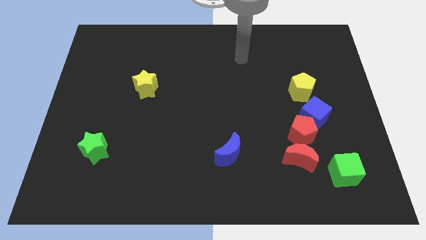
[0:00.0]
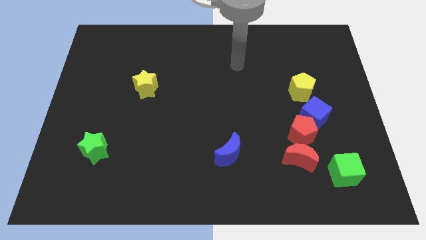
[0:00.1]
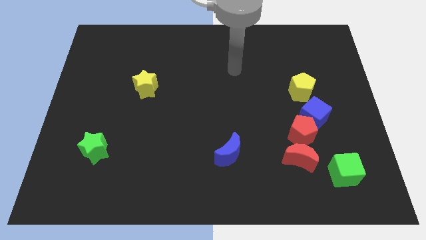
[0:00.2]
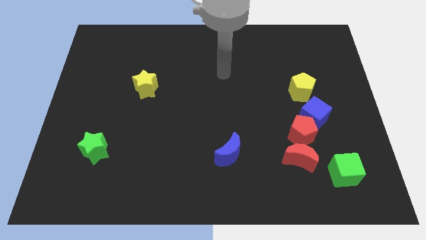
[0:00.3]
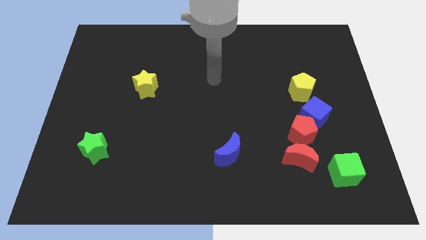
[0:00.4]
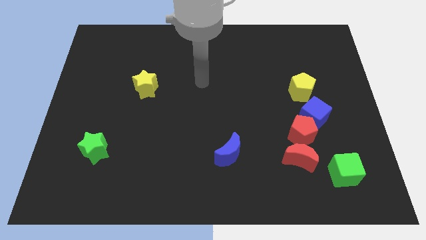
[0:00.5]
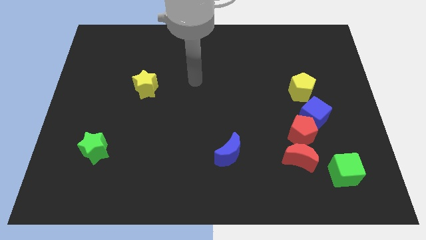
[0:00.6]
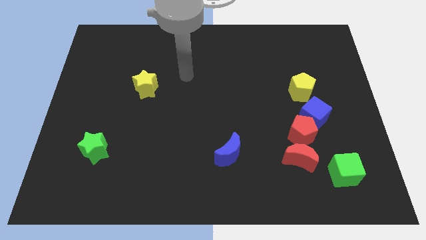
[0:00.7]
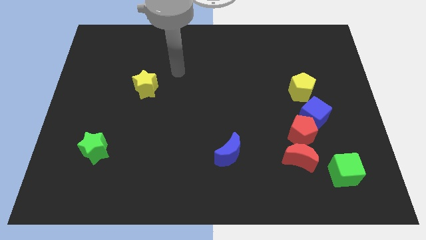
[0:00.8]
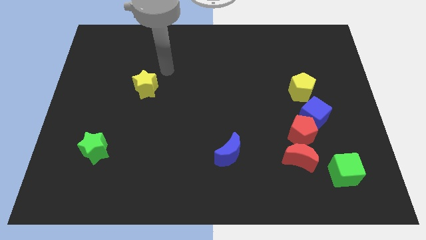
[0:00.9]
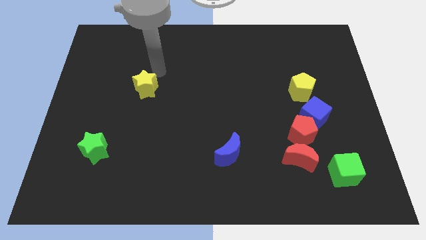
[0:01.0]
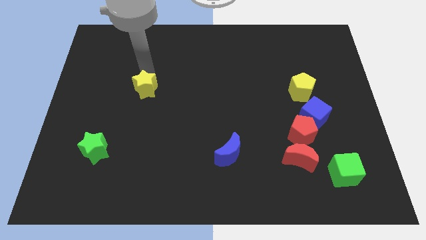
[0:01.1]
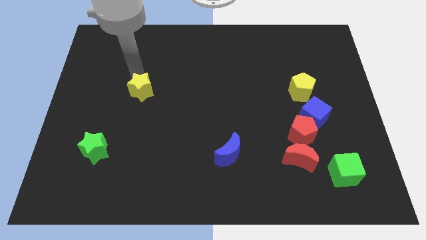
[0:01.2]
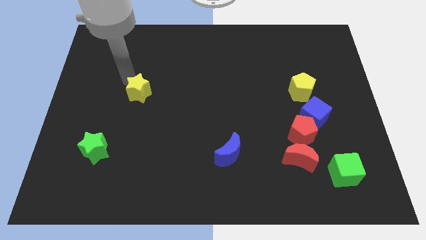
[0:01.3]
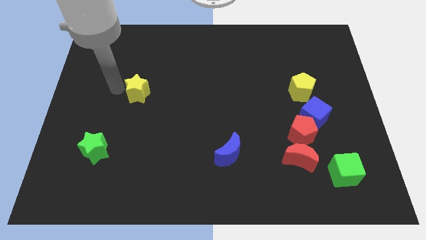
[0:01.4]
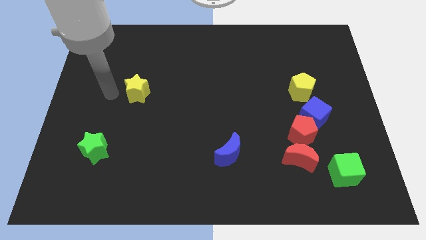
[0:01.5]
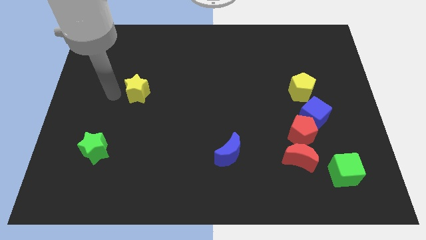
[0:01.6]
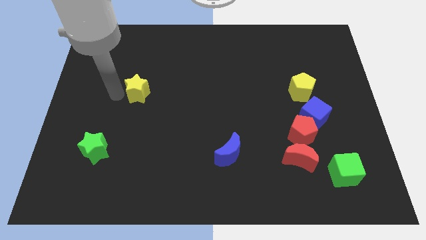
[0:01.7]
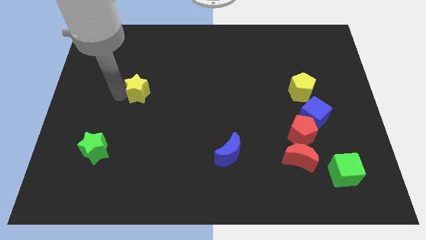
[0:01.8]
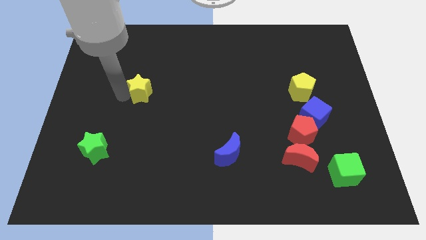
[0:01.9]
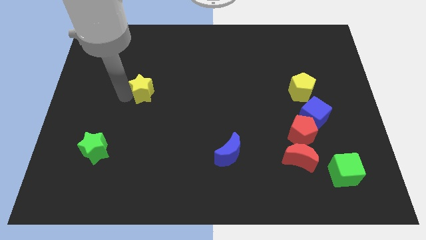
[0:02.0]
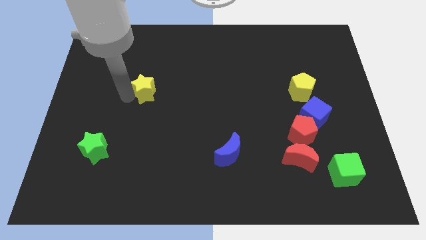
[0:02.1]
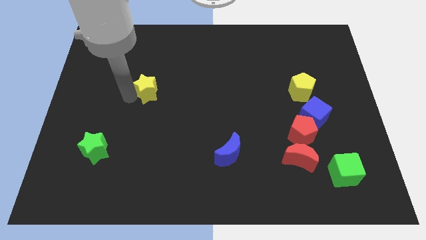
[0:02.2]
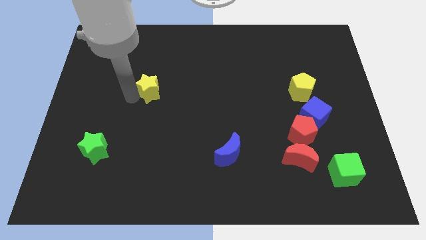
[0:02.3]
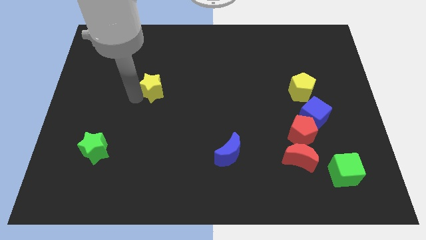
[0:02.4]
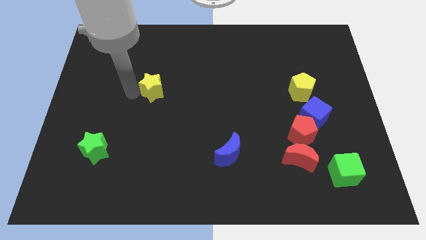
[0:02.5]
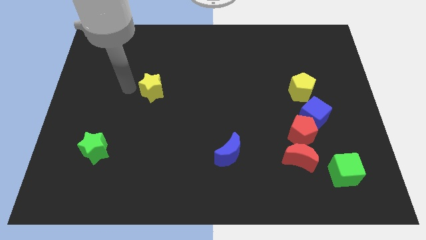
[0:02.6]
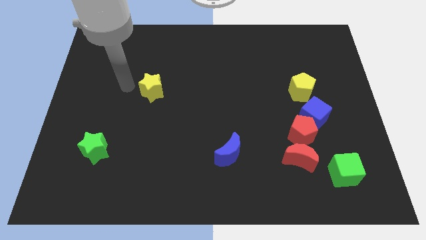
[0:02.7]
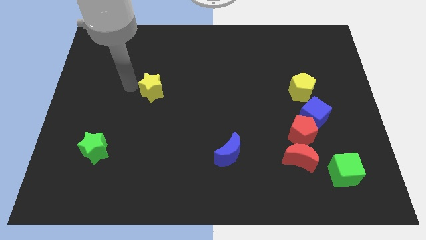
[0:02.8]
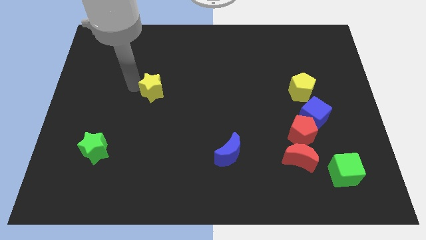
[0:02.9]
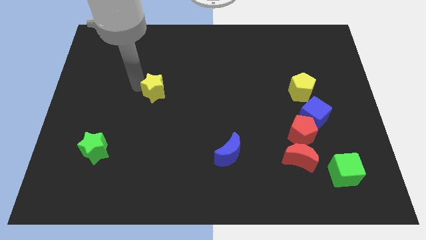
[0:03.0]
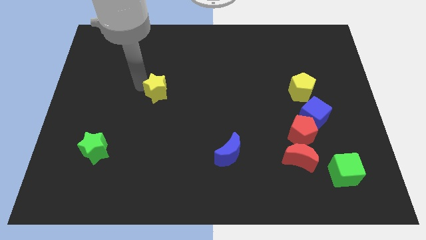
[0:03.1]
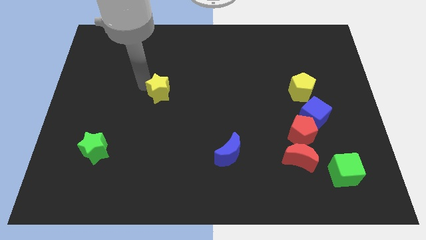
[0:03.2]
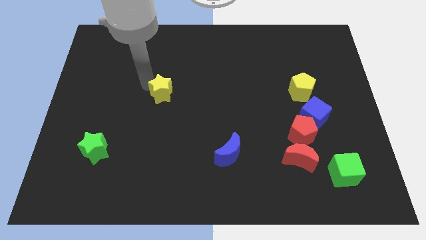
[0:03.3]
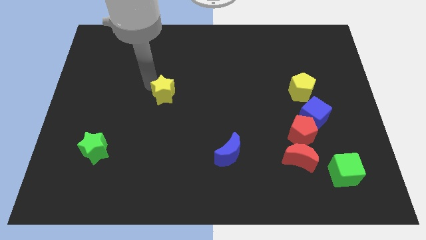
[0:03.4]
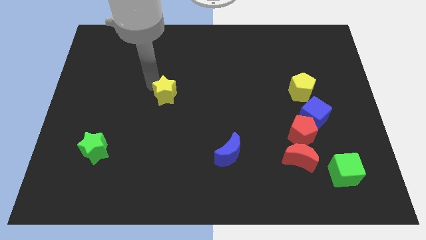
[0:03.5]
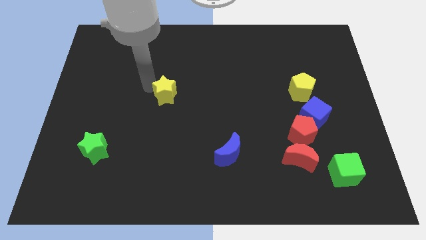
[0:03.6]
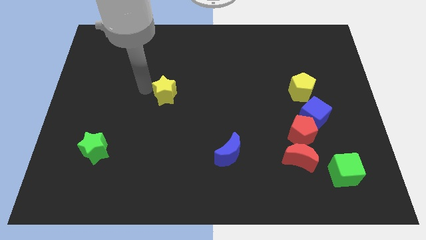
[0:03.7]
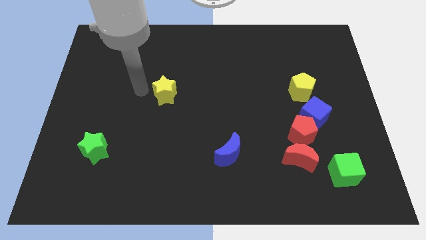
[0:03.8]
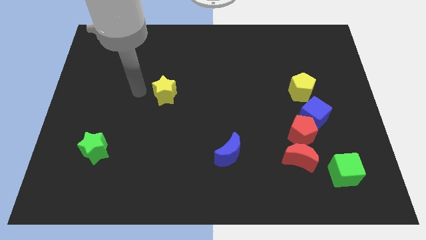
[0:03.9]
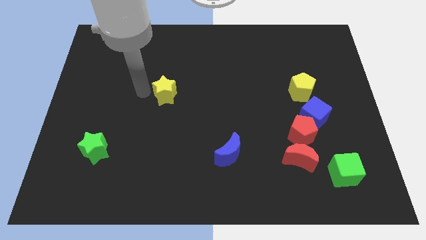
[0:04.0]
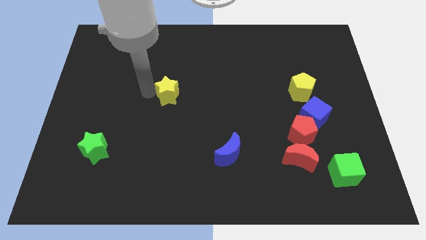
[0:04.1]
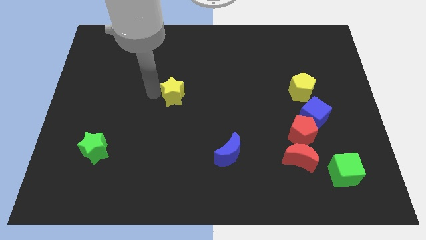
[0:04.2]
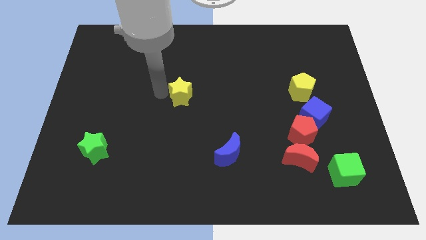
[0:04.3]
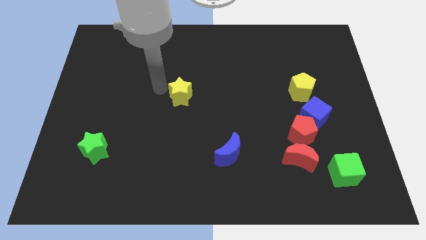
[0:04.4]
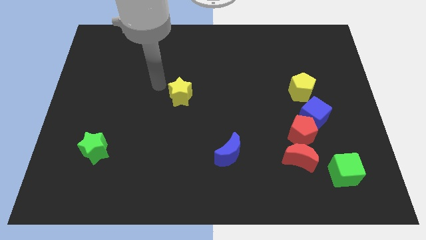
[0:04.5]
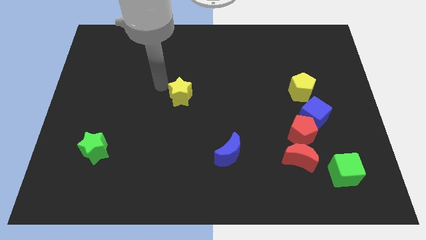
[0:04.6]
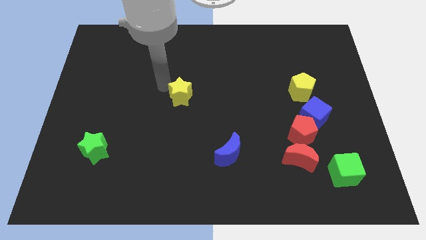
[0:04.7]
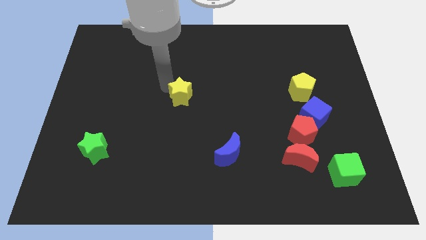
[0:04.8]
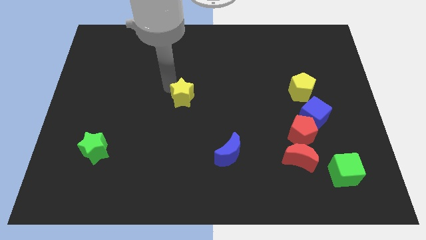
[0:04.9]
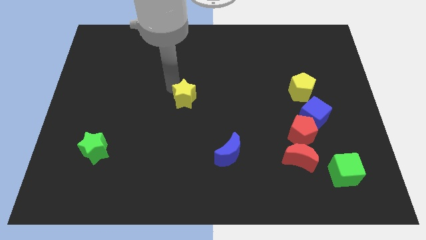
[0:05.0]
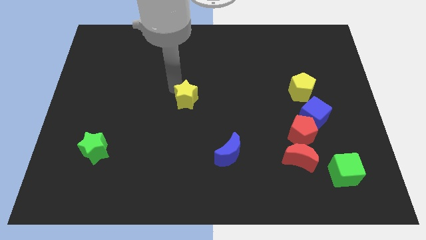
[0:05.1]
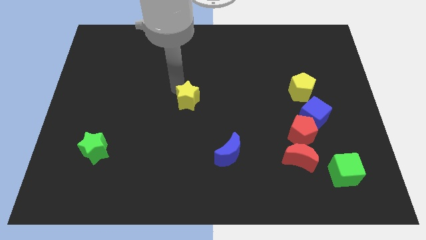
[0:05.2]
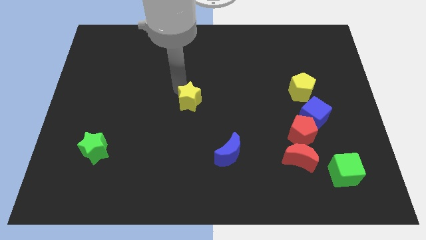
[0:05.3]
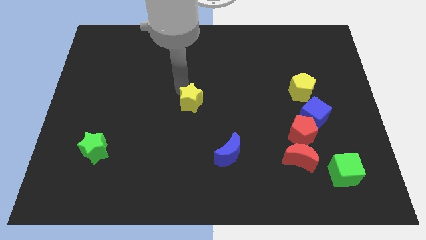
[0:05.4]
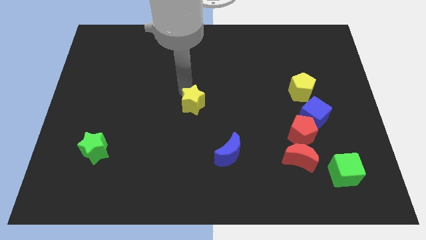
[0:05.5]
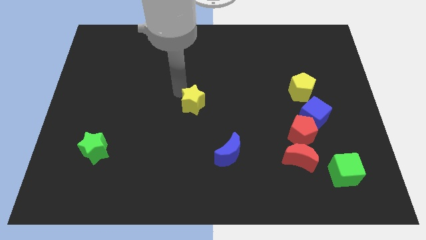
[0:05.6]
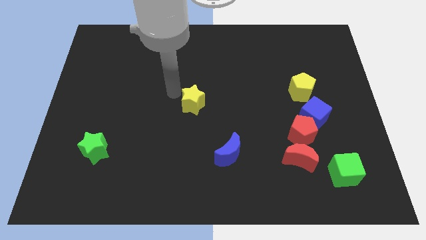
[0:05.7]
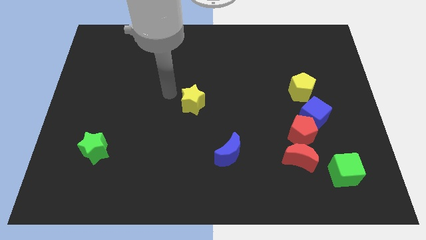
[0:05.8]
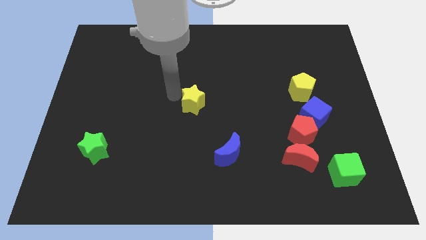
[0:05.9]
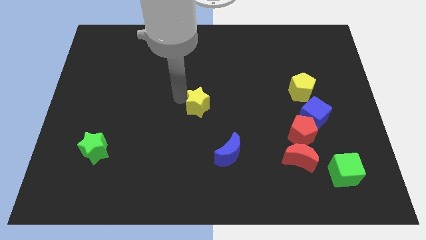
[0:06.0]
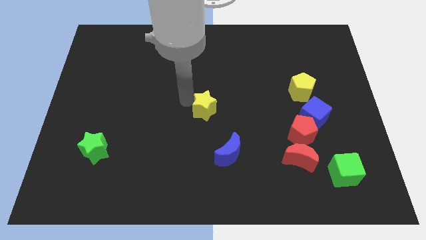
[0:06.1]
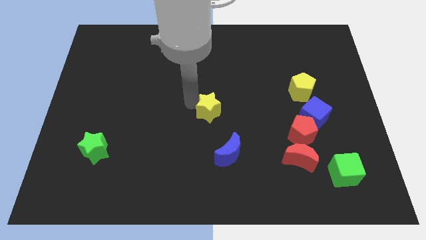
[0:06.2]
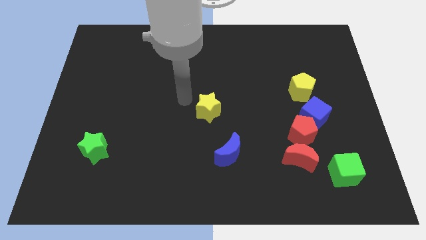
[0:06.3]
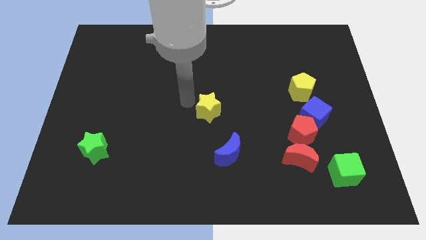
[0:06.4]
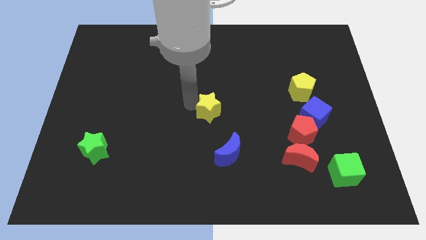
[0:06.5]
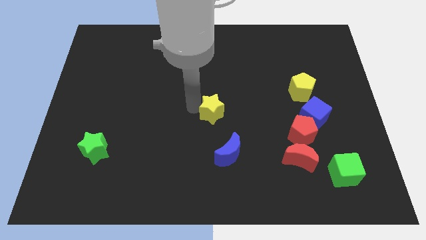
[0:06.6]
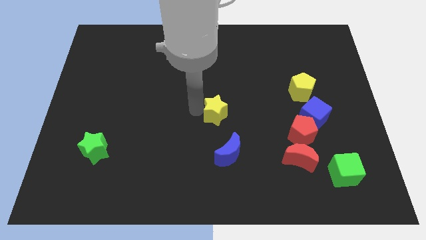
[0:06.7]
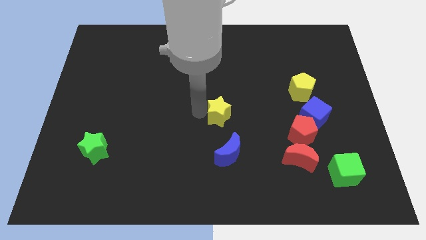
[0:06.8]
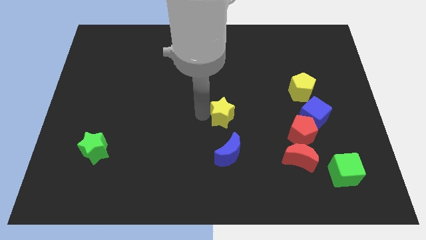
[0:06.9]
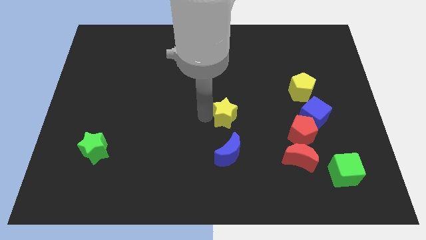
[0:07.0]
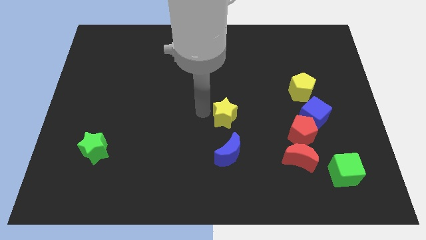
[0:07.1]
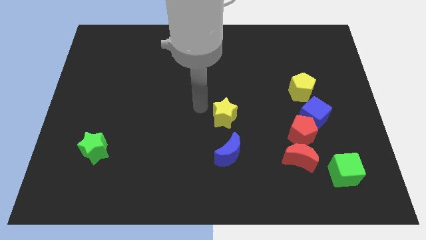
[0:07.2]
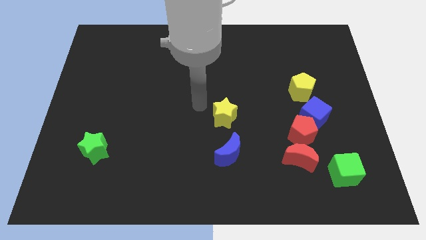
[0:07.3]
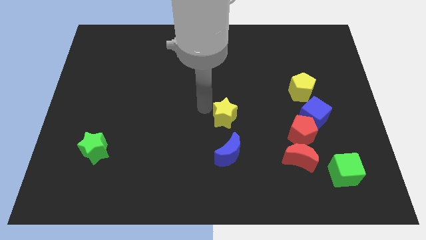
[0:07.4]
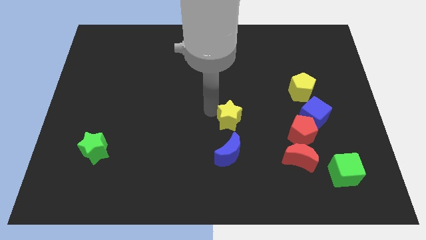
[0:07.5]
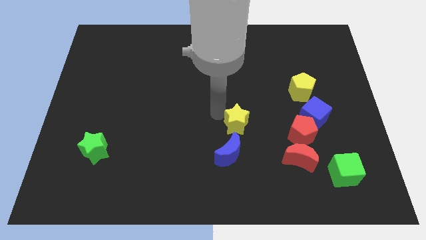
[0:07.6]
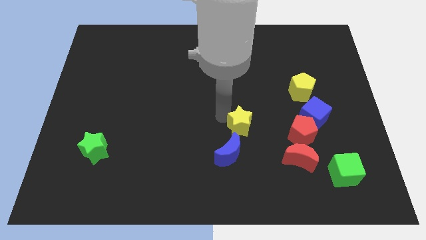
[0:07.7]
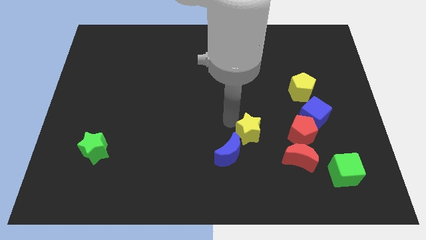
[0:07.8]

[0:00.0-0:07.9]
put the yellow star to the top left side of the red moon
